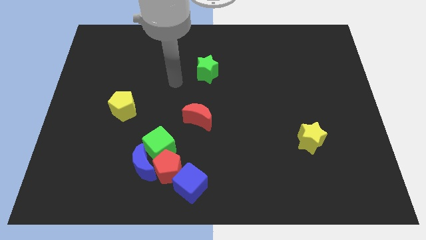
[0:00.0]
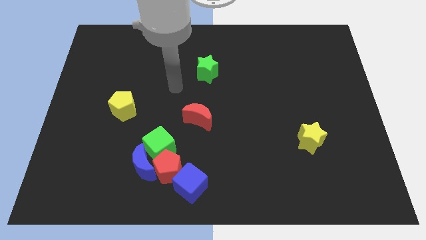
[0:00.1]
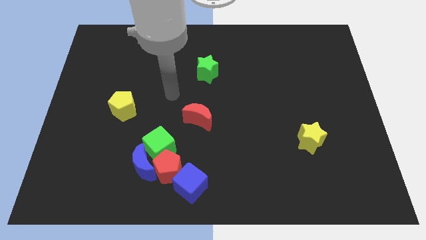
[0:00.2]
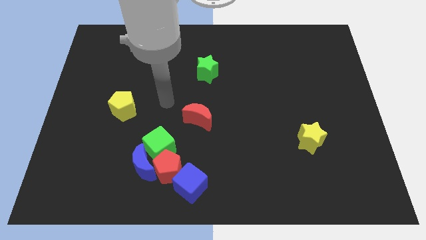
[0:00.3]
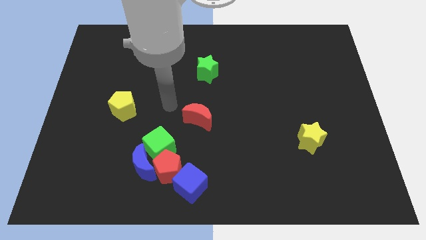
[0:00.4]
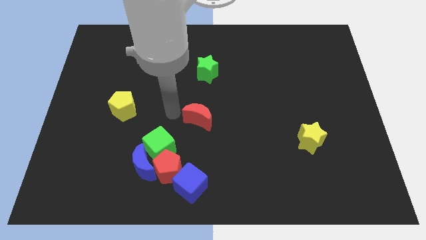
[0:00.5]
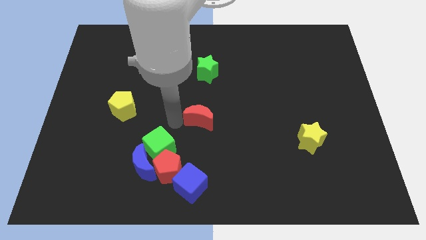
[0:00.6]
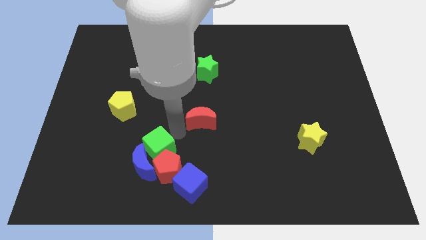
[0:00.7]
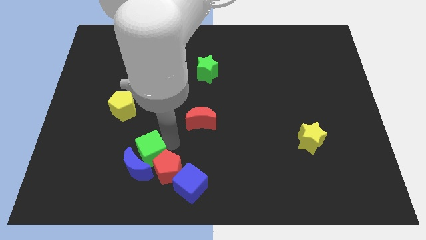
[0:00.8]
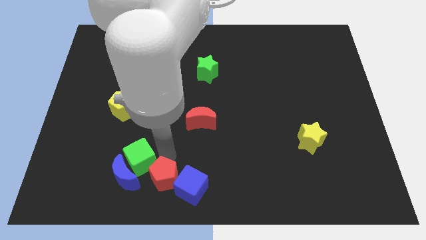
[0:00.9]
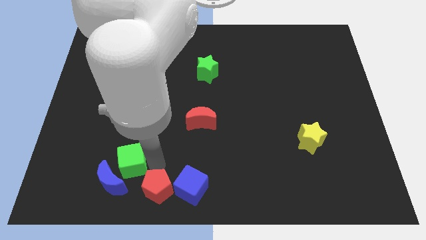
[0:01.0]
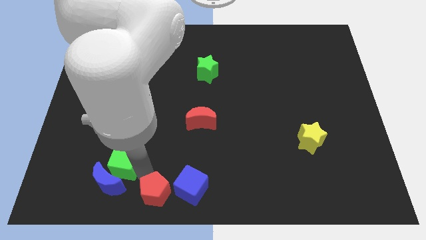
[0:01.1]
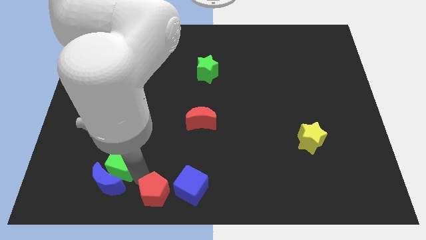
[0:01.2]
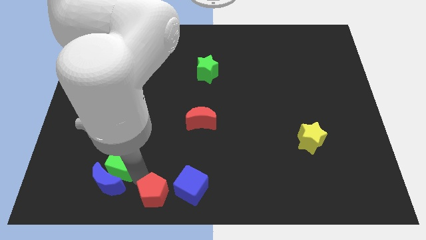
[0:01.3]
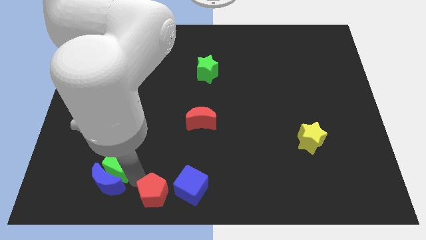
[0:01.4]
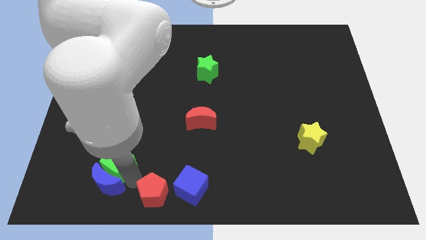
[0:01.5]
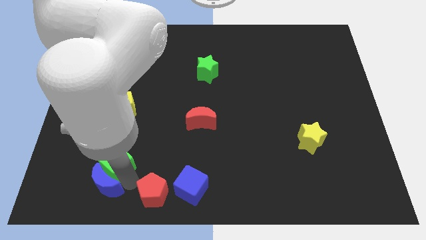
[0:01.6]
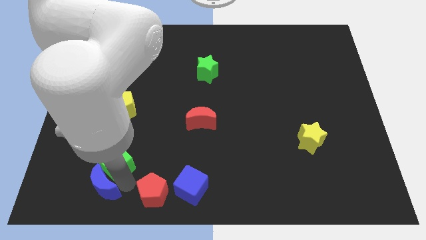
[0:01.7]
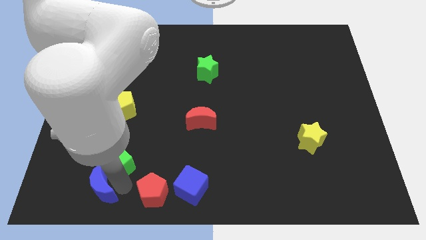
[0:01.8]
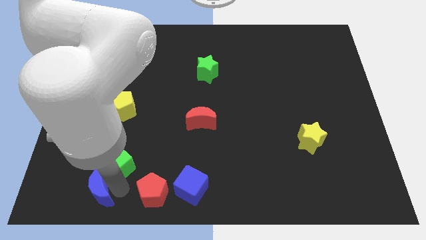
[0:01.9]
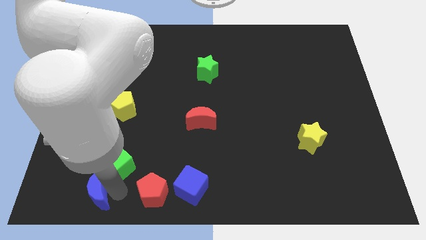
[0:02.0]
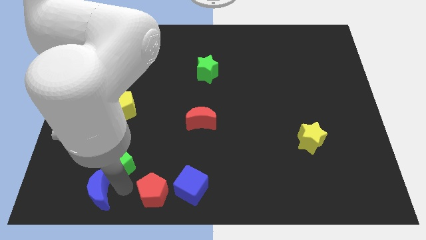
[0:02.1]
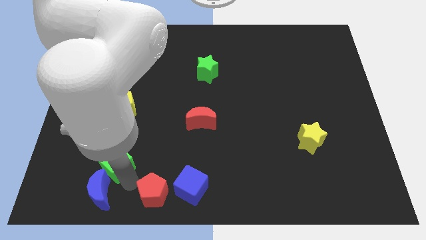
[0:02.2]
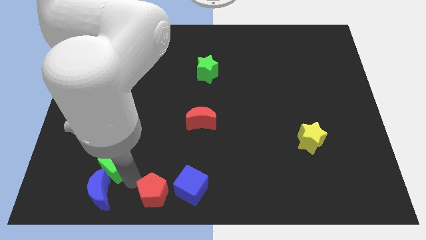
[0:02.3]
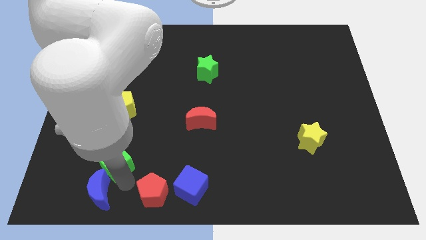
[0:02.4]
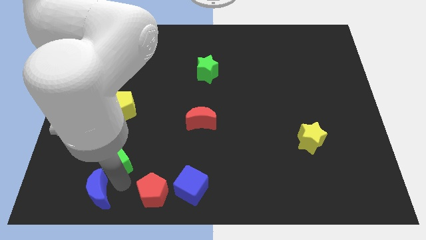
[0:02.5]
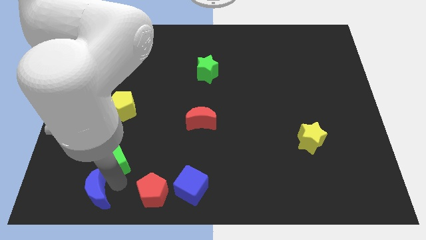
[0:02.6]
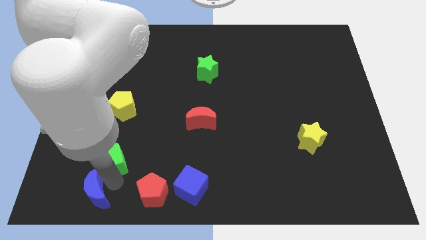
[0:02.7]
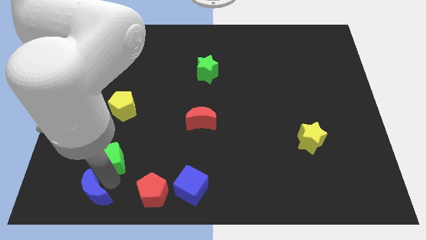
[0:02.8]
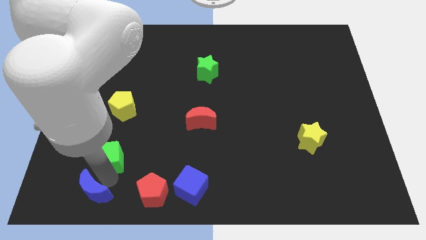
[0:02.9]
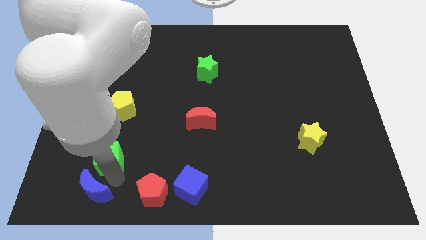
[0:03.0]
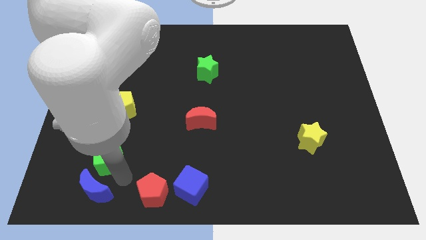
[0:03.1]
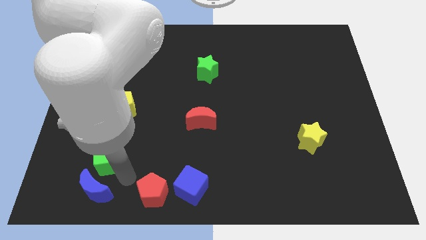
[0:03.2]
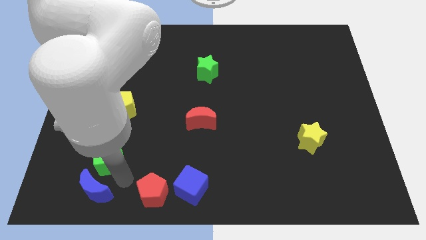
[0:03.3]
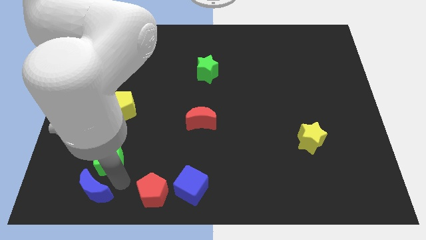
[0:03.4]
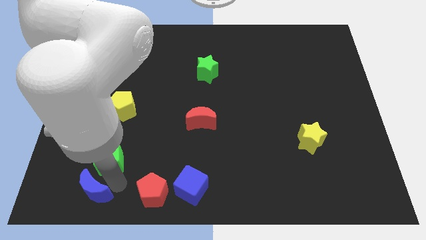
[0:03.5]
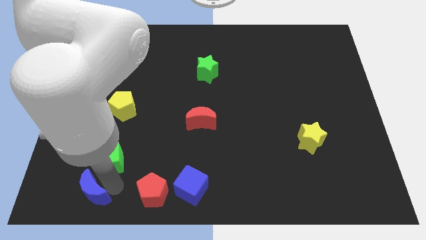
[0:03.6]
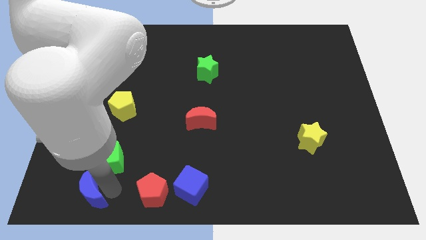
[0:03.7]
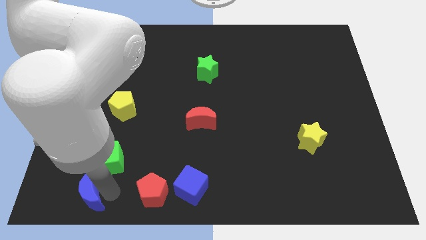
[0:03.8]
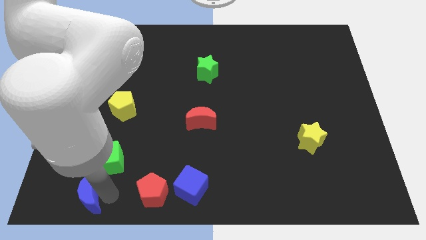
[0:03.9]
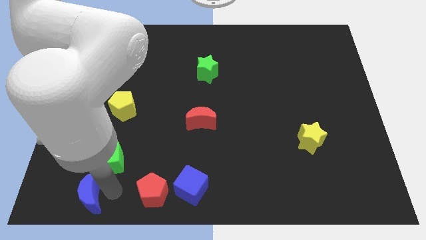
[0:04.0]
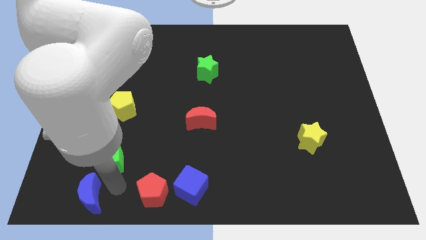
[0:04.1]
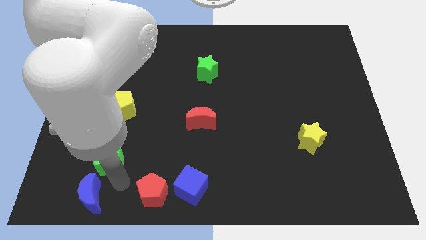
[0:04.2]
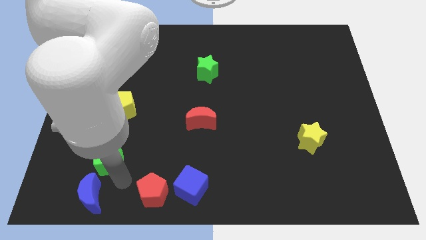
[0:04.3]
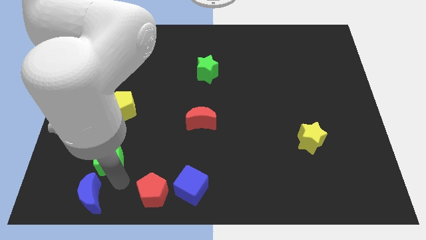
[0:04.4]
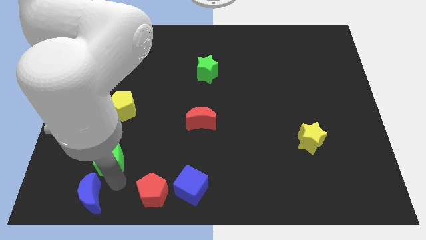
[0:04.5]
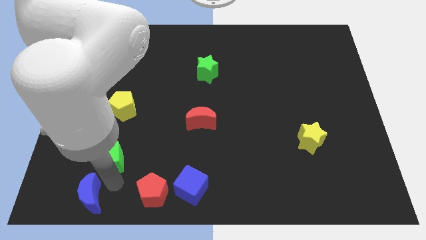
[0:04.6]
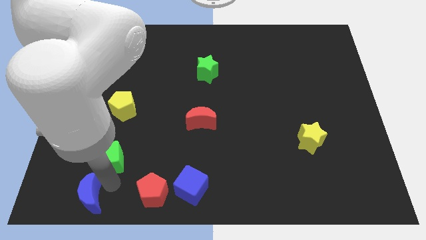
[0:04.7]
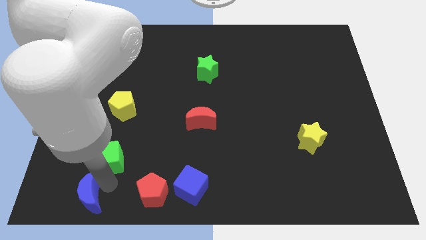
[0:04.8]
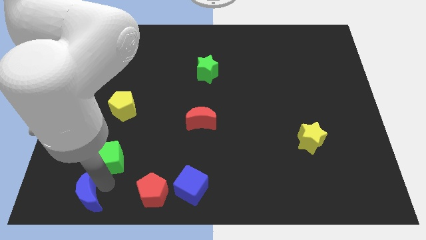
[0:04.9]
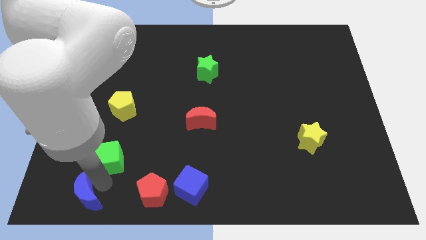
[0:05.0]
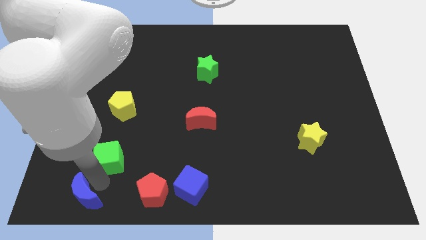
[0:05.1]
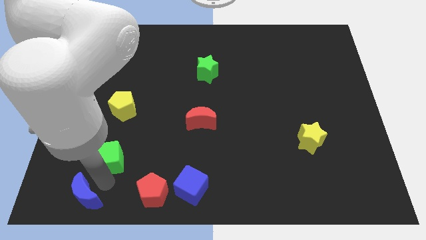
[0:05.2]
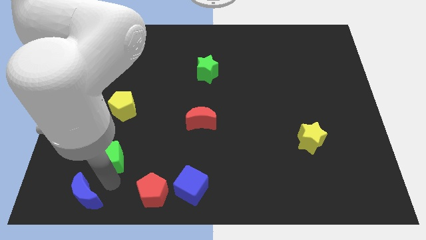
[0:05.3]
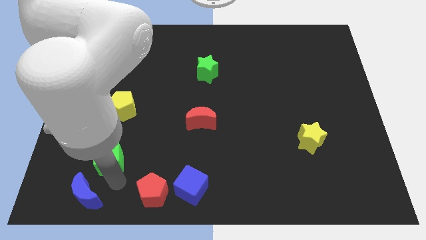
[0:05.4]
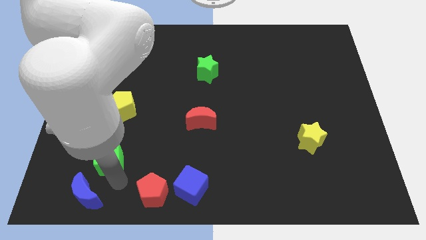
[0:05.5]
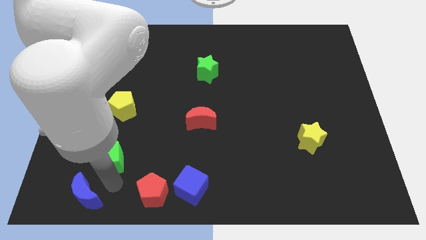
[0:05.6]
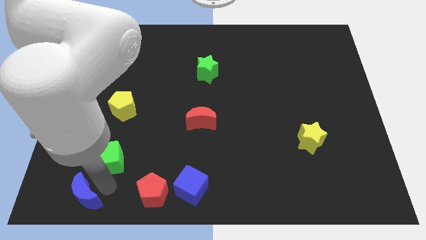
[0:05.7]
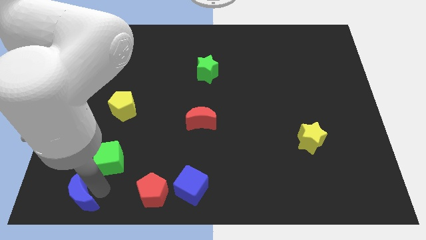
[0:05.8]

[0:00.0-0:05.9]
move the blue moon away from the red pentagon and green cube

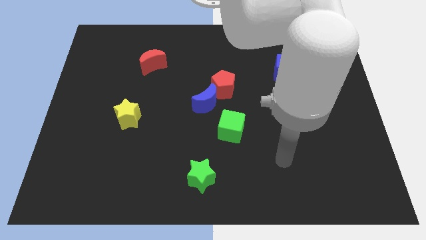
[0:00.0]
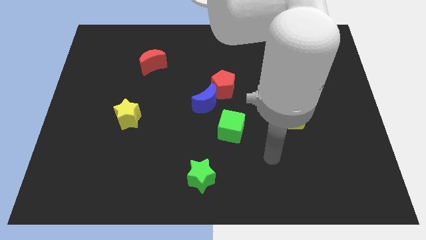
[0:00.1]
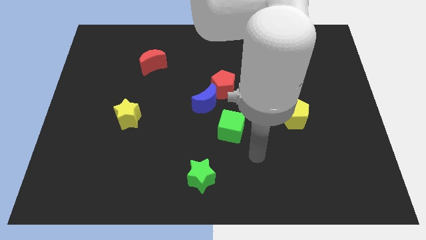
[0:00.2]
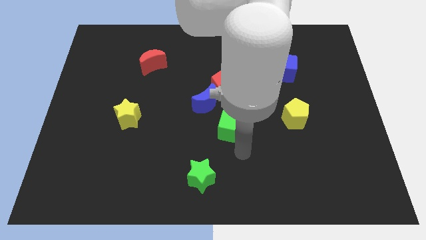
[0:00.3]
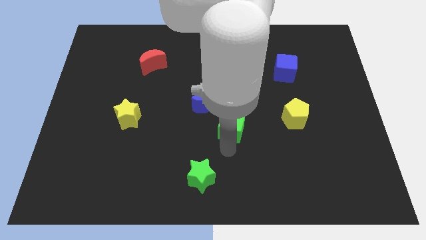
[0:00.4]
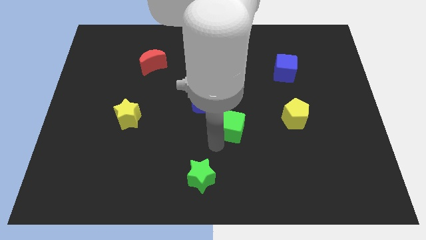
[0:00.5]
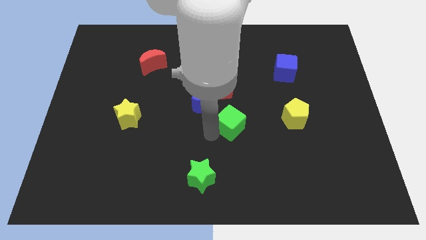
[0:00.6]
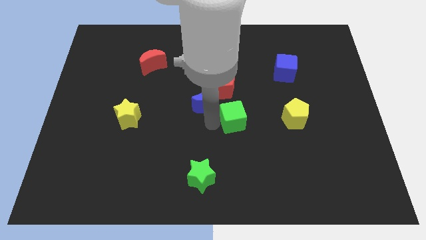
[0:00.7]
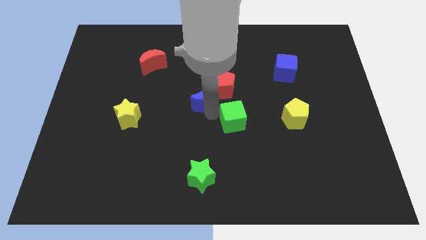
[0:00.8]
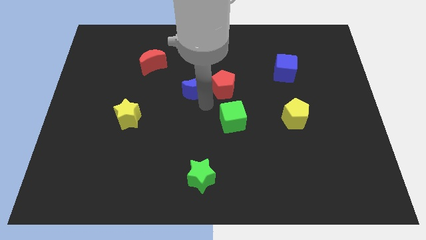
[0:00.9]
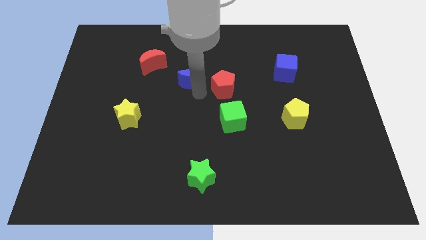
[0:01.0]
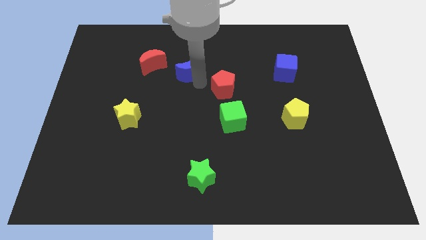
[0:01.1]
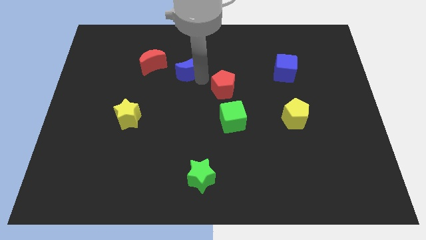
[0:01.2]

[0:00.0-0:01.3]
move the red pentagon away from the blue moon

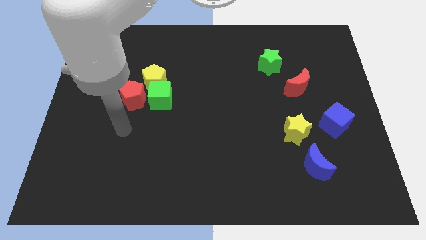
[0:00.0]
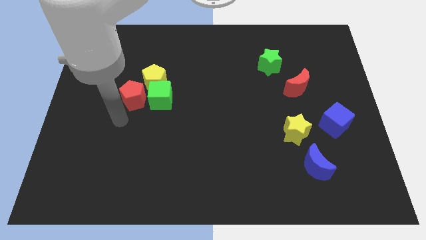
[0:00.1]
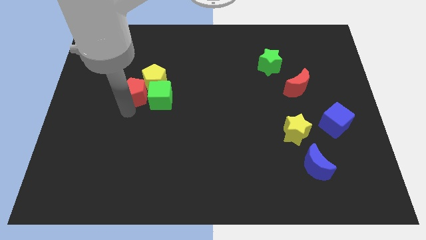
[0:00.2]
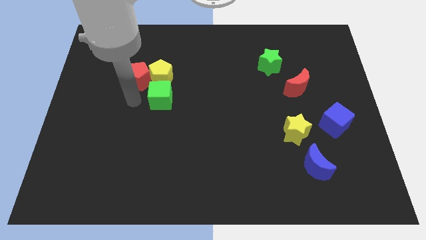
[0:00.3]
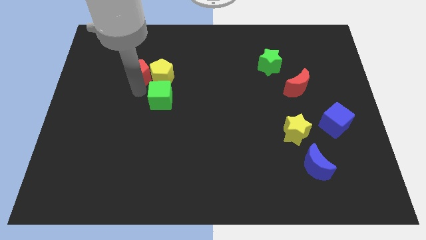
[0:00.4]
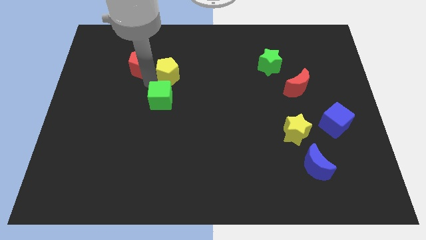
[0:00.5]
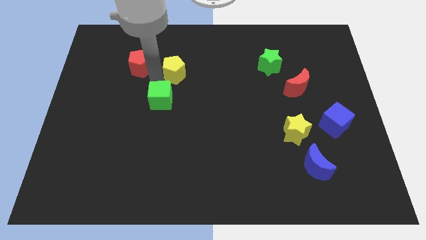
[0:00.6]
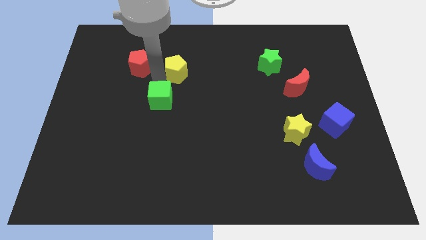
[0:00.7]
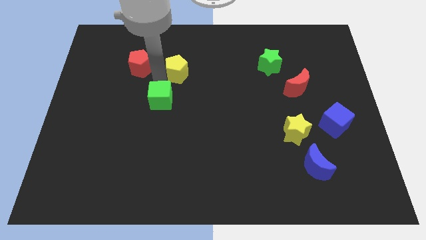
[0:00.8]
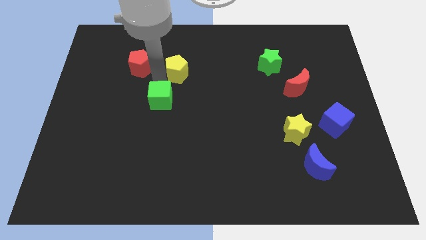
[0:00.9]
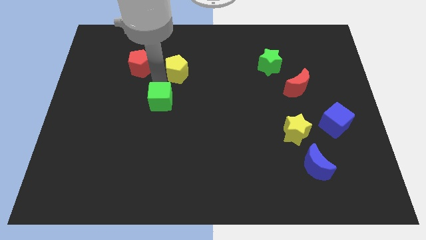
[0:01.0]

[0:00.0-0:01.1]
move the green cube away from the yellow pentagon and red pentagon

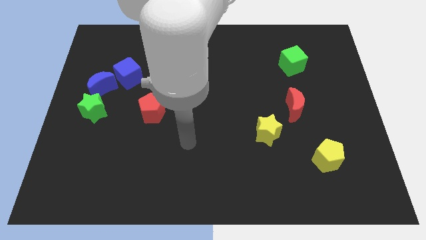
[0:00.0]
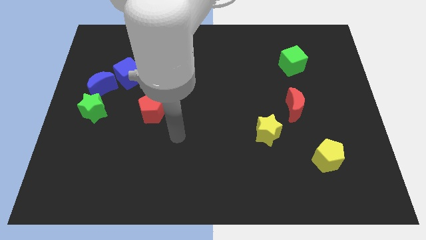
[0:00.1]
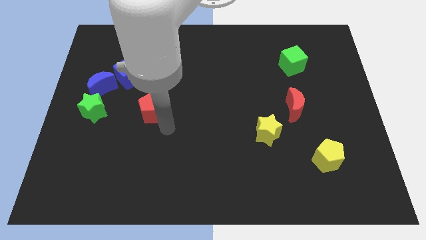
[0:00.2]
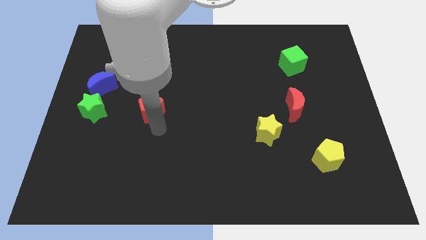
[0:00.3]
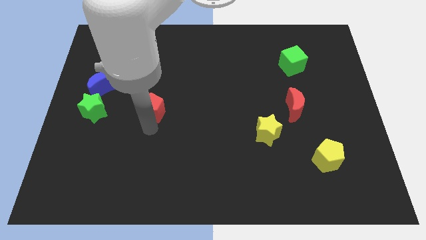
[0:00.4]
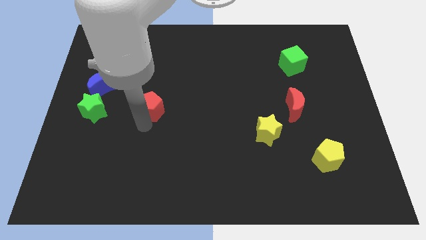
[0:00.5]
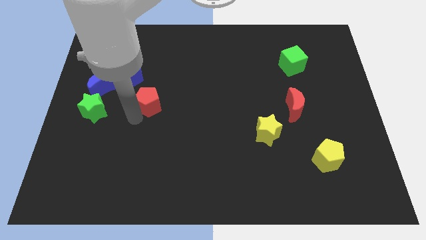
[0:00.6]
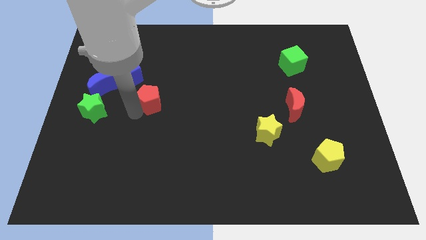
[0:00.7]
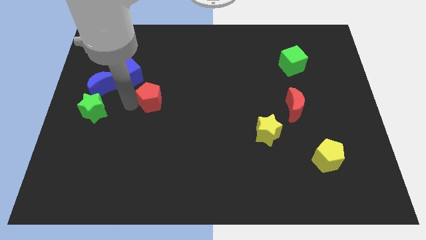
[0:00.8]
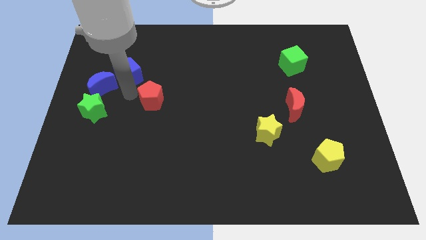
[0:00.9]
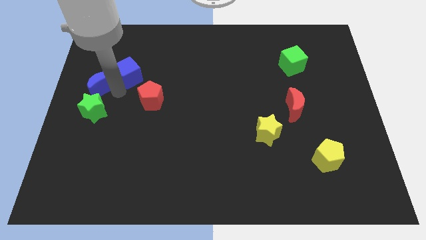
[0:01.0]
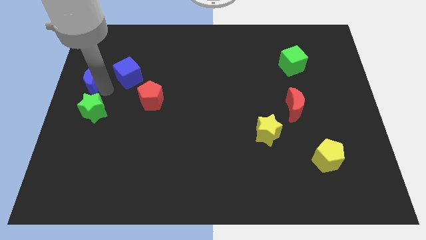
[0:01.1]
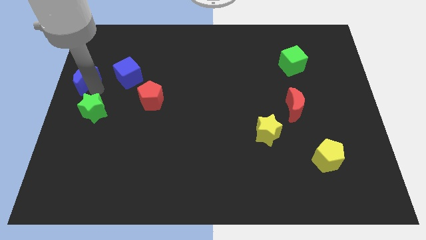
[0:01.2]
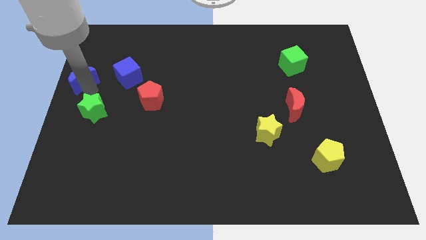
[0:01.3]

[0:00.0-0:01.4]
pull the green star apart from the blue moon
